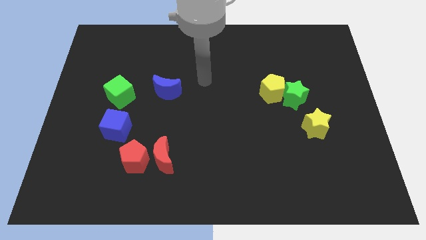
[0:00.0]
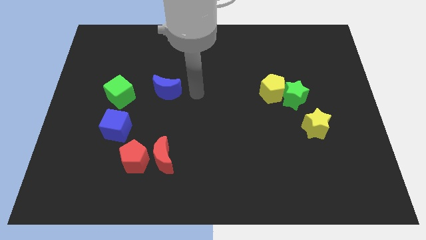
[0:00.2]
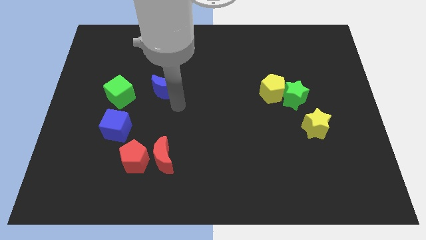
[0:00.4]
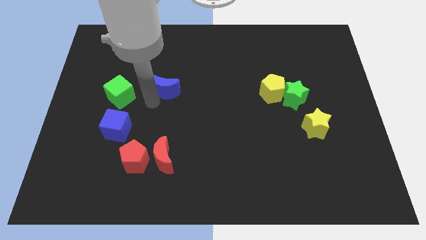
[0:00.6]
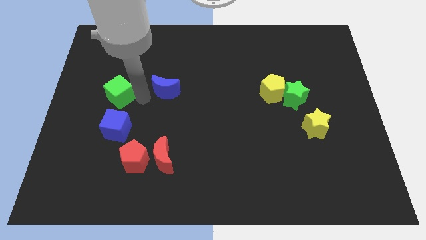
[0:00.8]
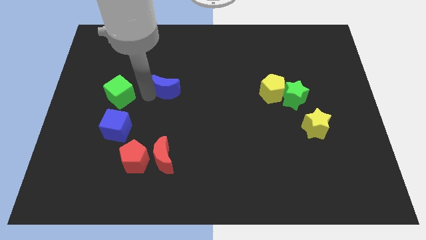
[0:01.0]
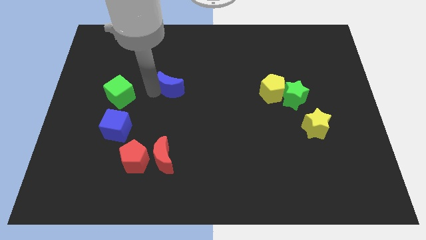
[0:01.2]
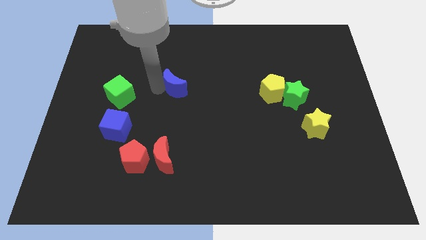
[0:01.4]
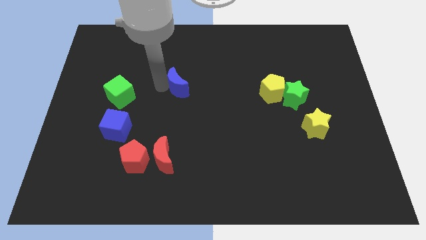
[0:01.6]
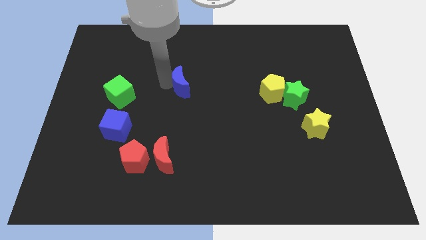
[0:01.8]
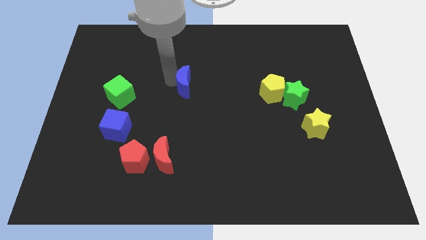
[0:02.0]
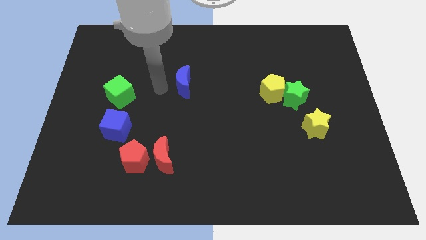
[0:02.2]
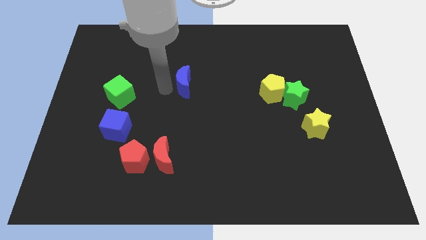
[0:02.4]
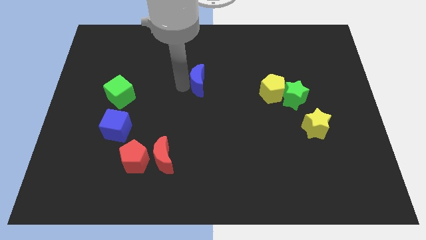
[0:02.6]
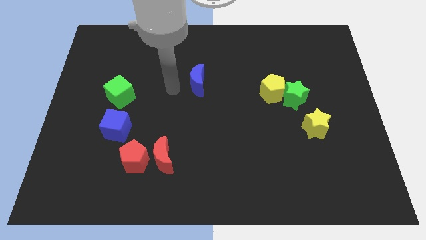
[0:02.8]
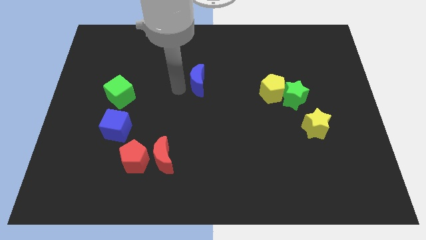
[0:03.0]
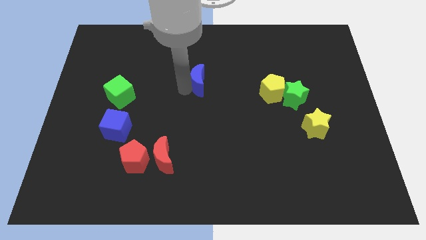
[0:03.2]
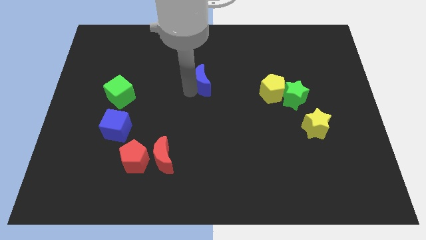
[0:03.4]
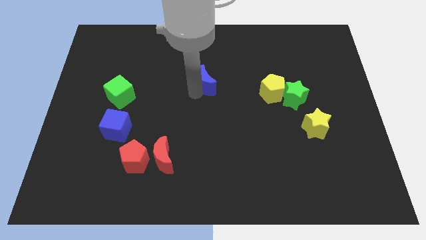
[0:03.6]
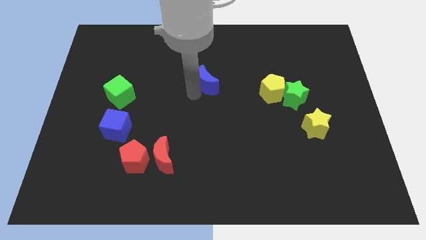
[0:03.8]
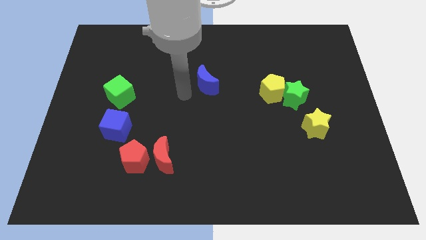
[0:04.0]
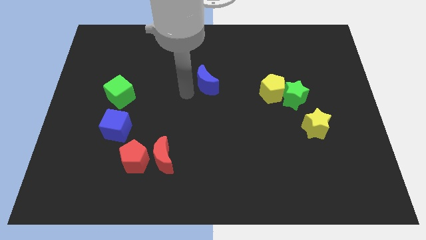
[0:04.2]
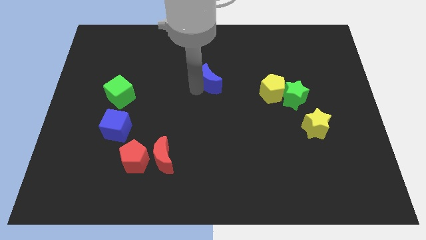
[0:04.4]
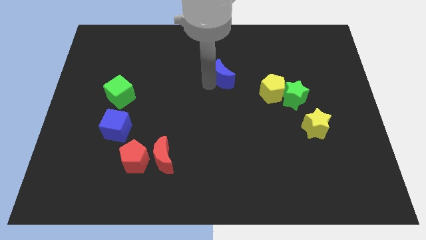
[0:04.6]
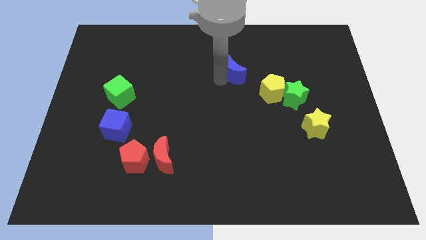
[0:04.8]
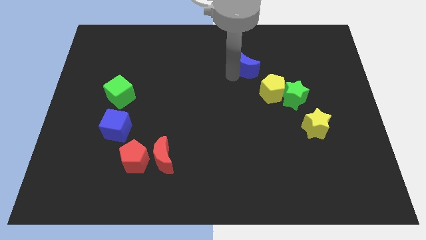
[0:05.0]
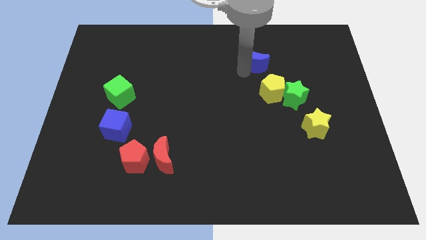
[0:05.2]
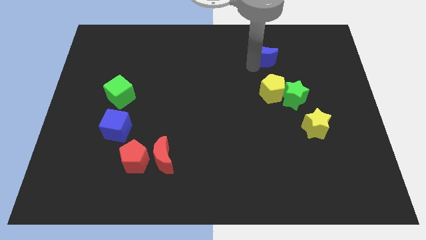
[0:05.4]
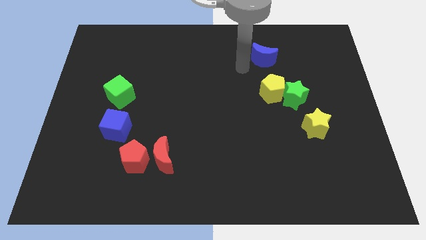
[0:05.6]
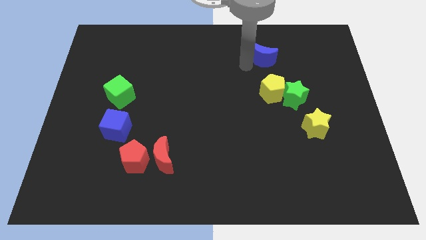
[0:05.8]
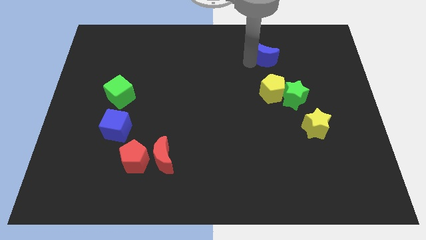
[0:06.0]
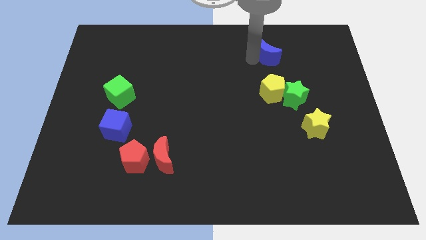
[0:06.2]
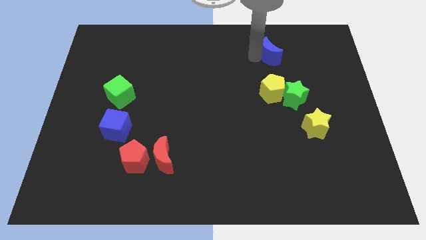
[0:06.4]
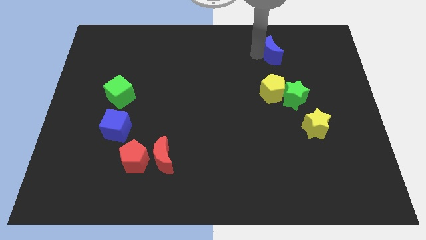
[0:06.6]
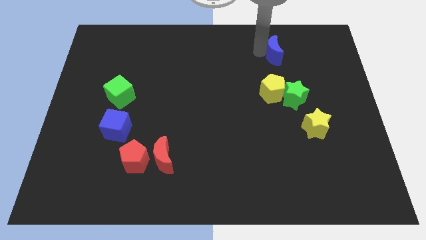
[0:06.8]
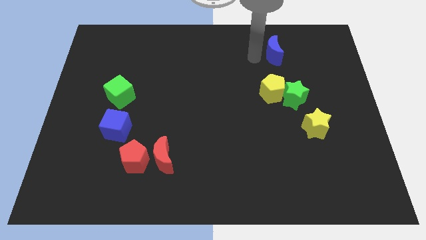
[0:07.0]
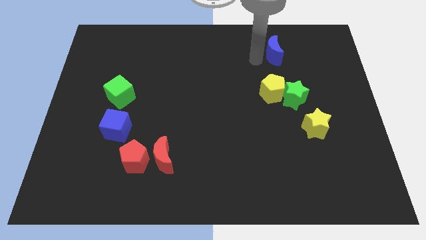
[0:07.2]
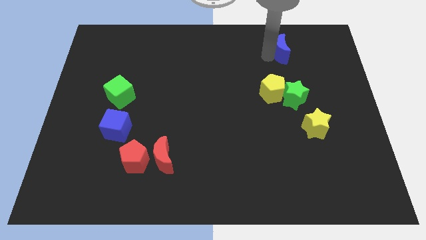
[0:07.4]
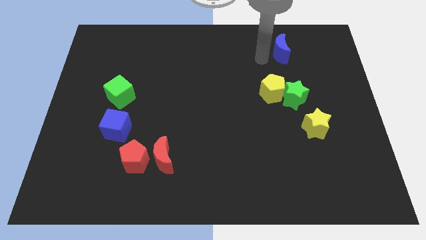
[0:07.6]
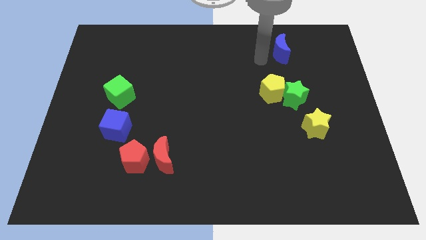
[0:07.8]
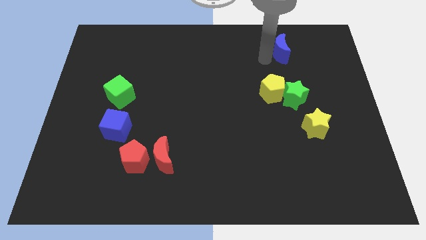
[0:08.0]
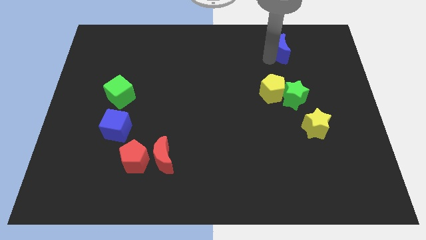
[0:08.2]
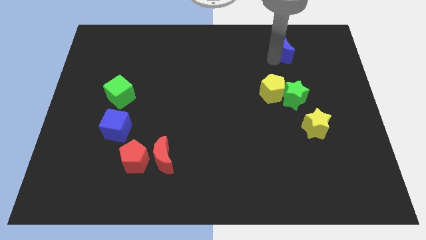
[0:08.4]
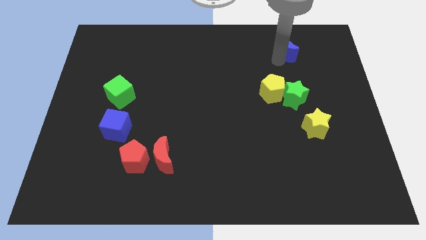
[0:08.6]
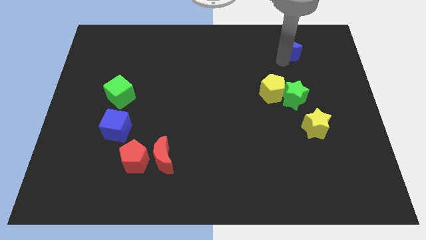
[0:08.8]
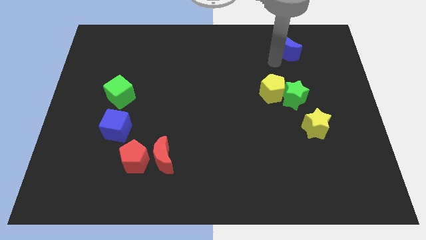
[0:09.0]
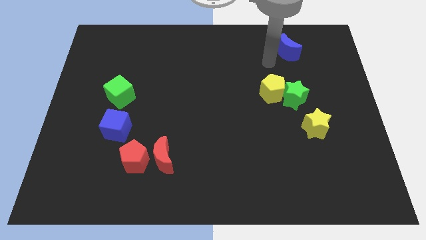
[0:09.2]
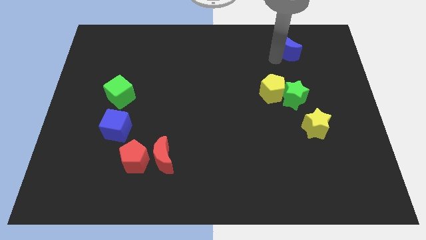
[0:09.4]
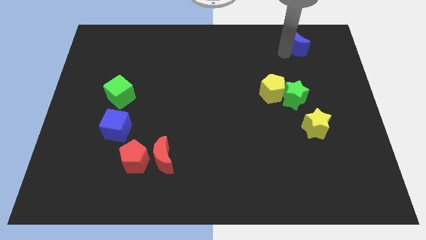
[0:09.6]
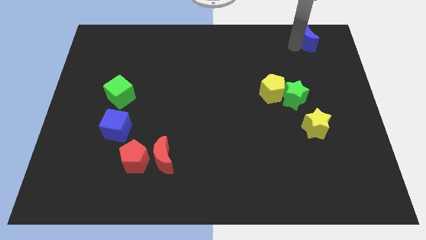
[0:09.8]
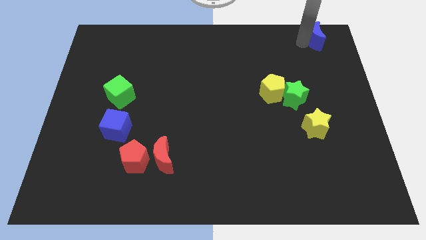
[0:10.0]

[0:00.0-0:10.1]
slide the blue moon to the top right of the board

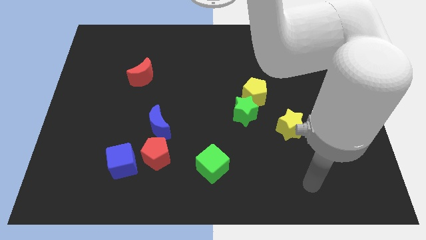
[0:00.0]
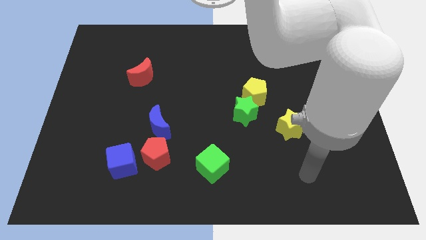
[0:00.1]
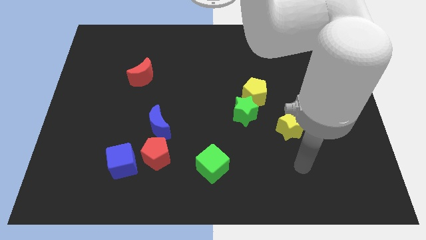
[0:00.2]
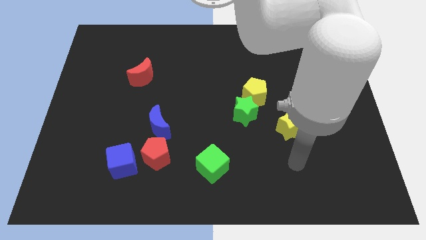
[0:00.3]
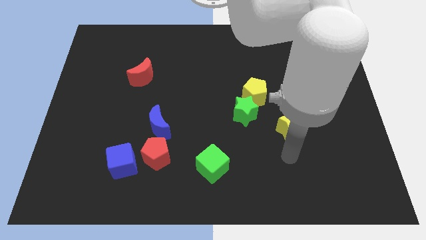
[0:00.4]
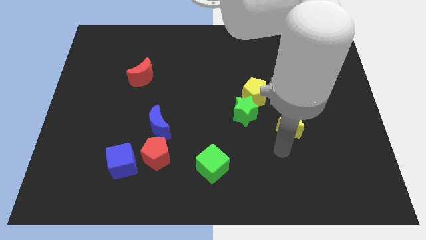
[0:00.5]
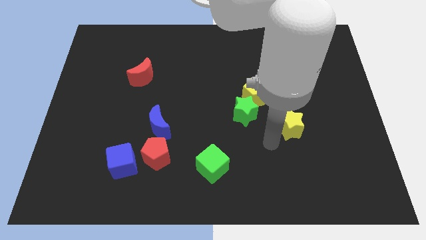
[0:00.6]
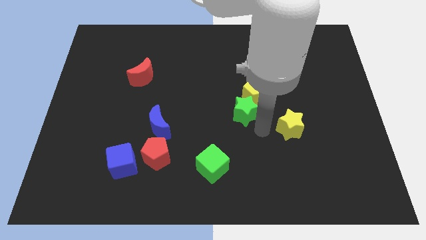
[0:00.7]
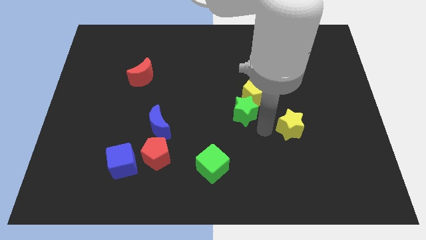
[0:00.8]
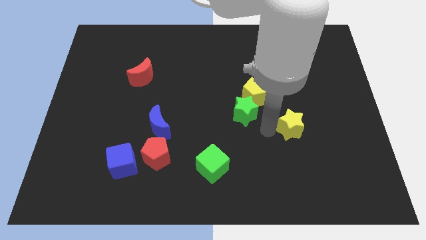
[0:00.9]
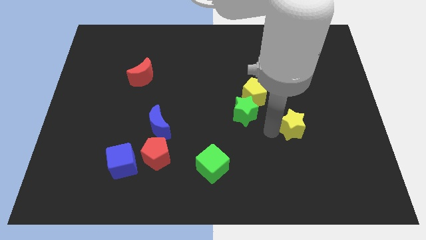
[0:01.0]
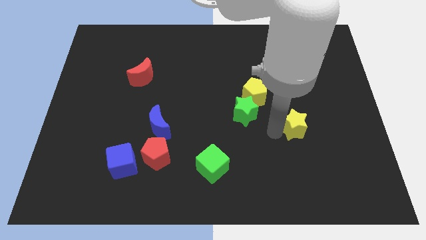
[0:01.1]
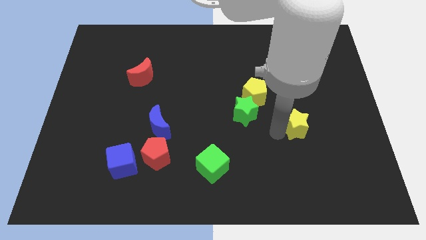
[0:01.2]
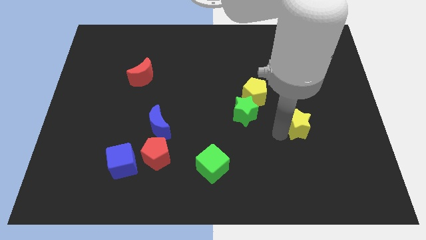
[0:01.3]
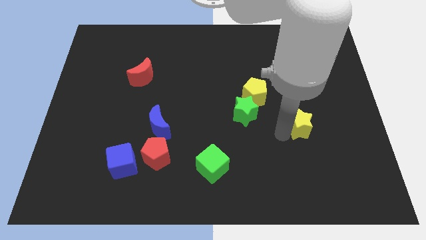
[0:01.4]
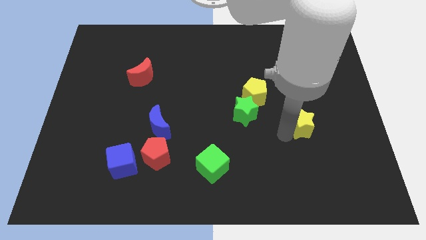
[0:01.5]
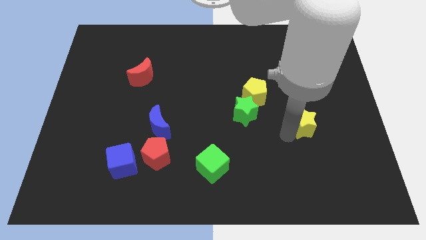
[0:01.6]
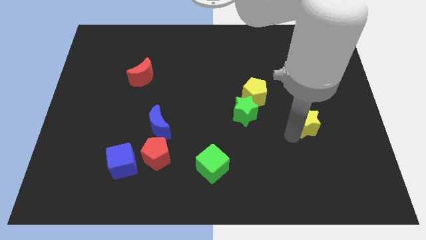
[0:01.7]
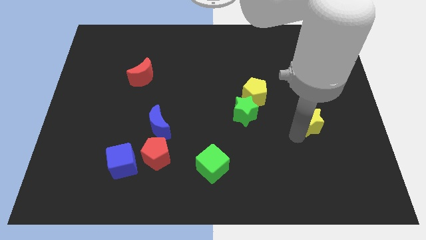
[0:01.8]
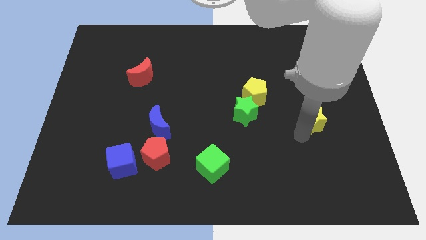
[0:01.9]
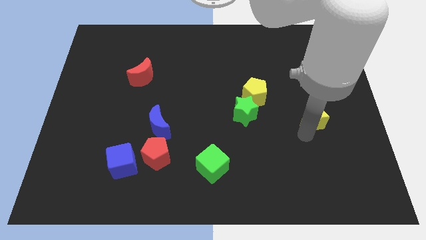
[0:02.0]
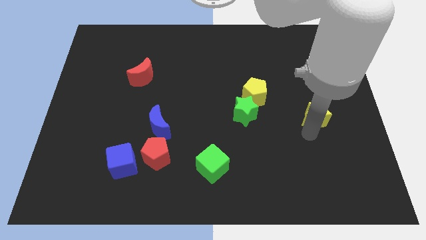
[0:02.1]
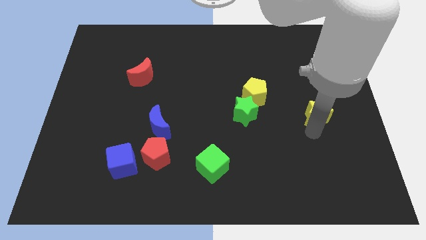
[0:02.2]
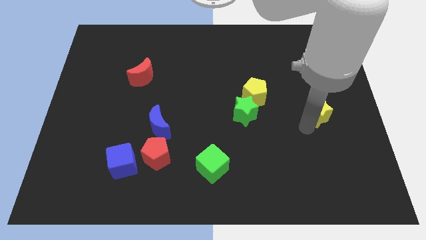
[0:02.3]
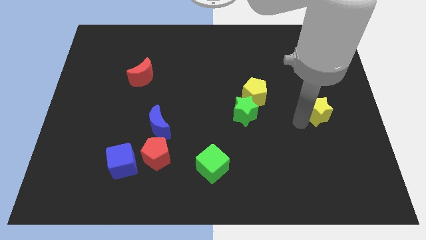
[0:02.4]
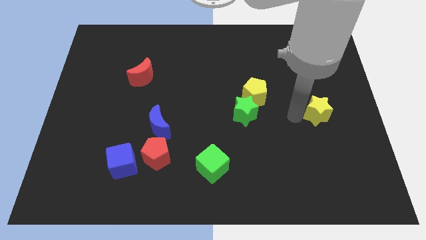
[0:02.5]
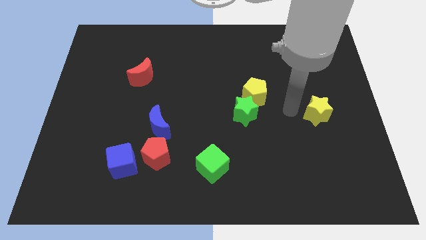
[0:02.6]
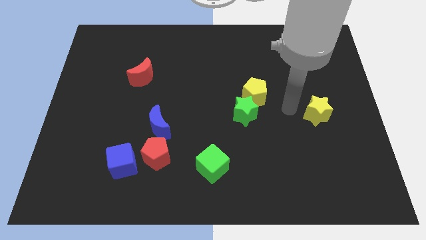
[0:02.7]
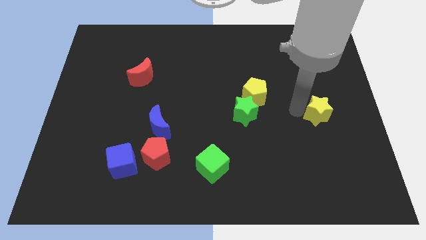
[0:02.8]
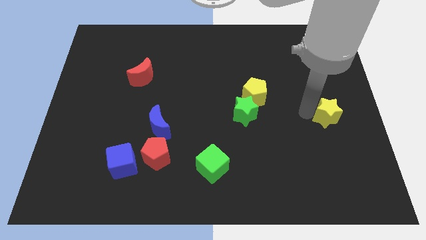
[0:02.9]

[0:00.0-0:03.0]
push the yellow star to the center right
